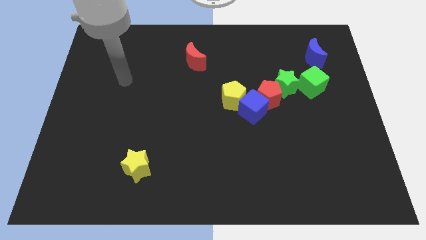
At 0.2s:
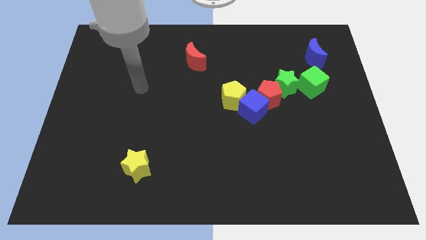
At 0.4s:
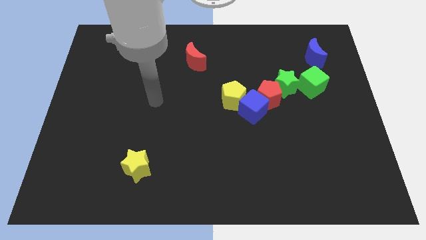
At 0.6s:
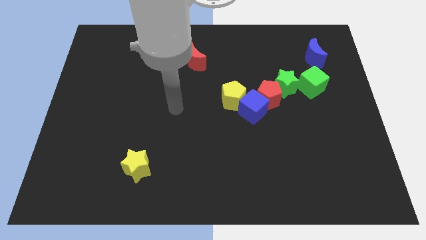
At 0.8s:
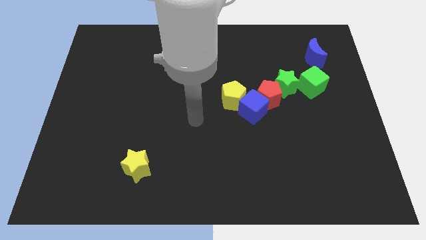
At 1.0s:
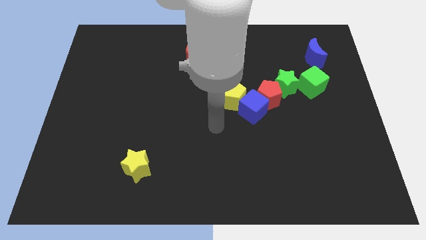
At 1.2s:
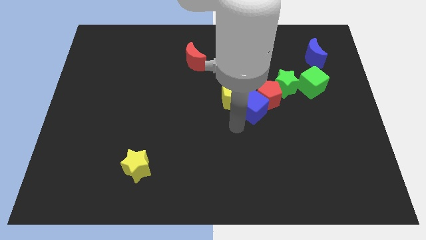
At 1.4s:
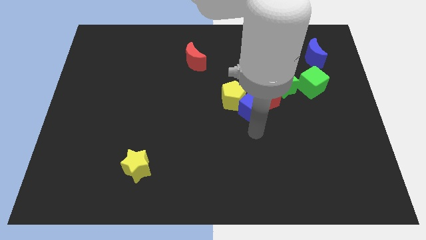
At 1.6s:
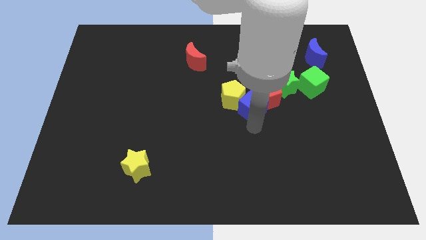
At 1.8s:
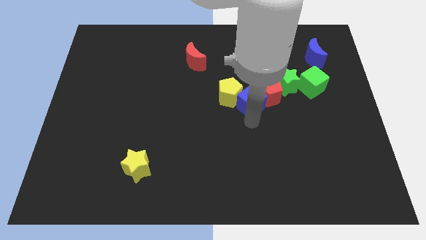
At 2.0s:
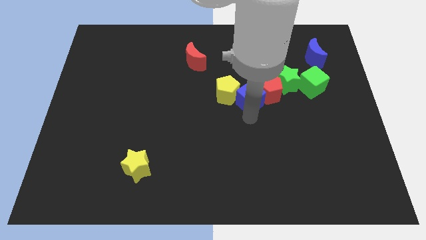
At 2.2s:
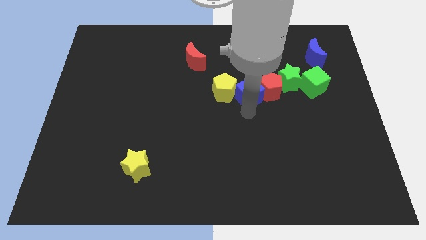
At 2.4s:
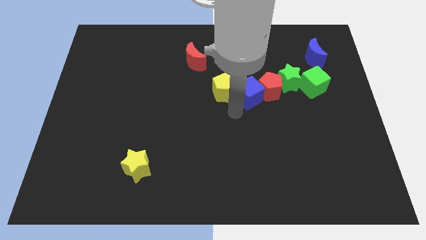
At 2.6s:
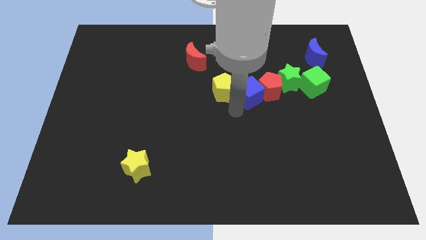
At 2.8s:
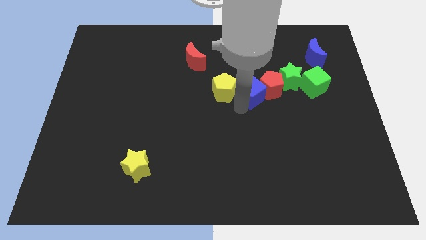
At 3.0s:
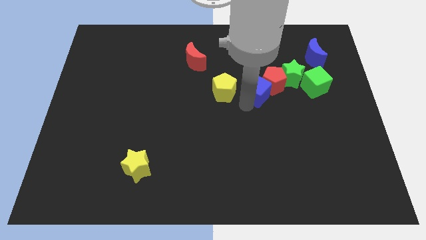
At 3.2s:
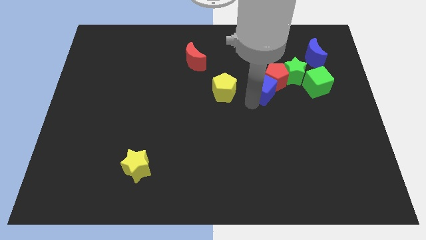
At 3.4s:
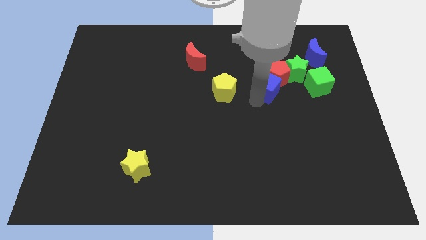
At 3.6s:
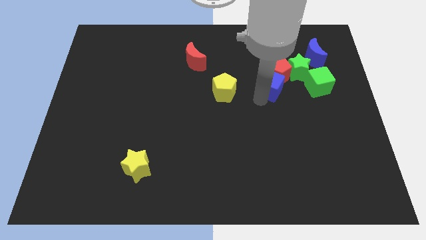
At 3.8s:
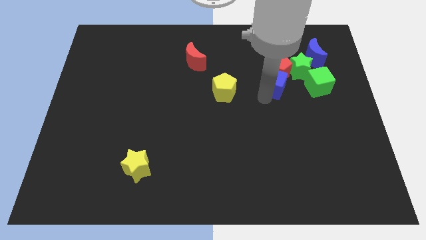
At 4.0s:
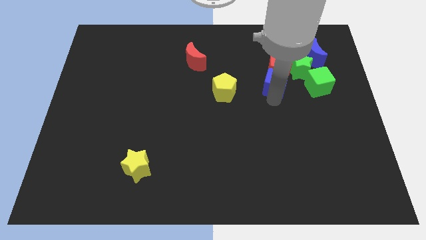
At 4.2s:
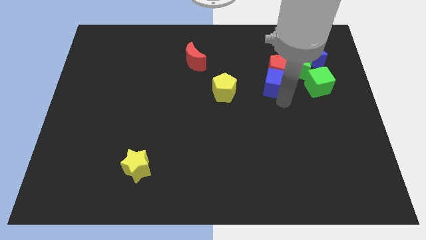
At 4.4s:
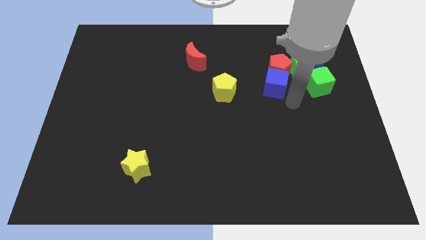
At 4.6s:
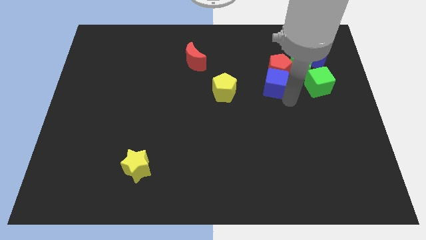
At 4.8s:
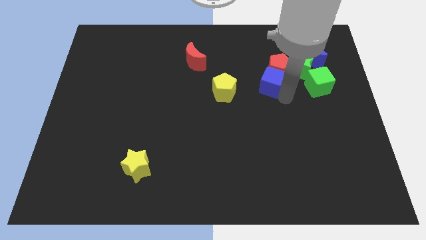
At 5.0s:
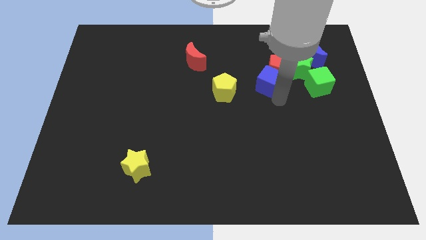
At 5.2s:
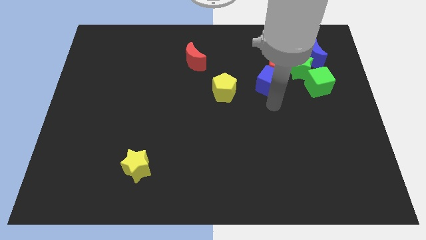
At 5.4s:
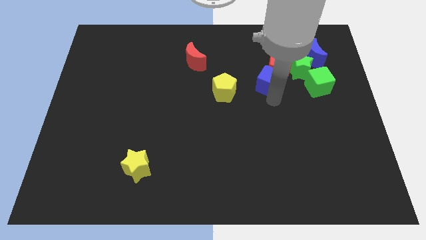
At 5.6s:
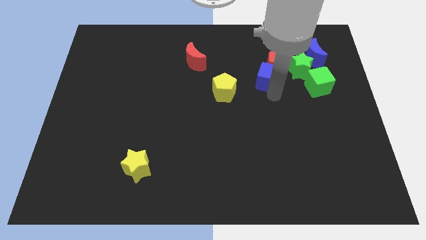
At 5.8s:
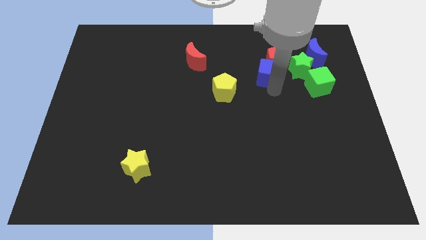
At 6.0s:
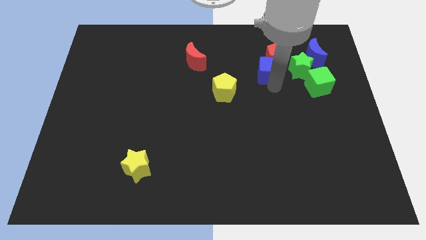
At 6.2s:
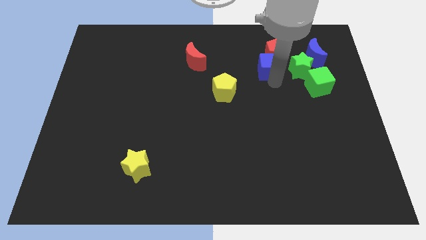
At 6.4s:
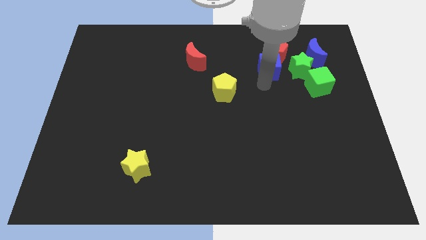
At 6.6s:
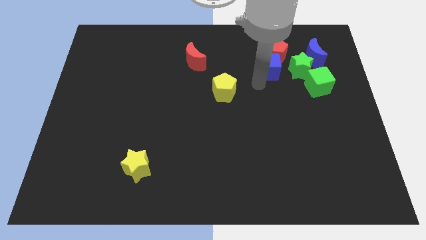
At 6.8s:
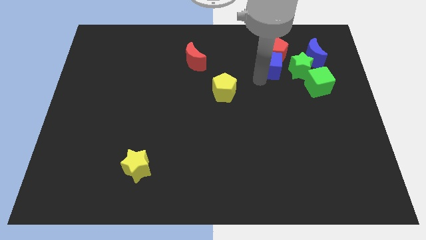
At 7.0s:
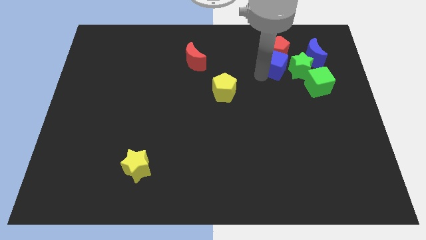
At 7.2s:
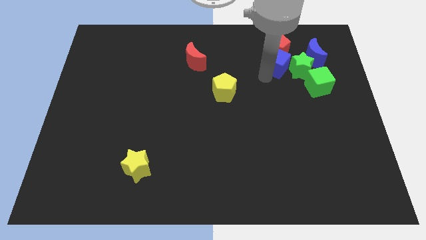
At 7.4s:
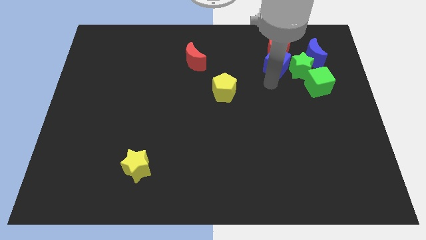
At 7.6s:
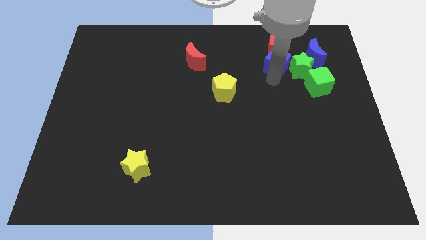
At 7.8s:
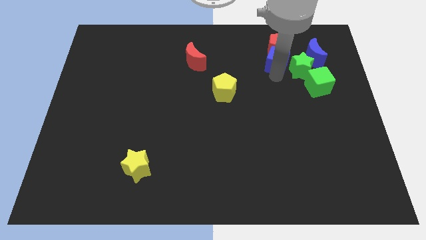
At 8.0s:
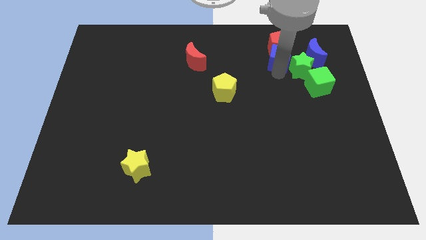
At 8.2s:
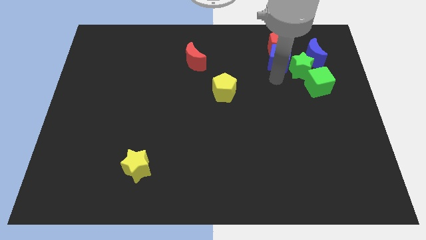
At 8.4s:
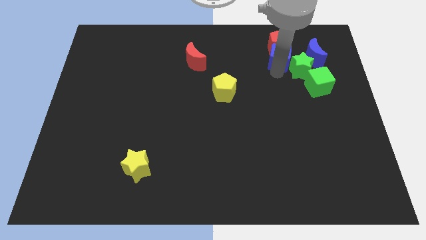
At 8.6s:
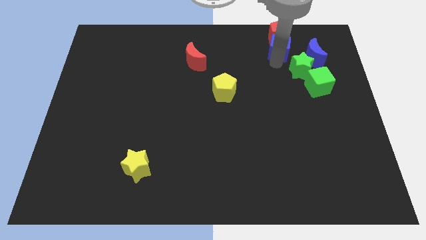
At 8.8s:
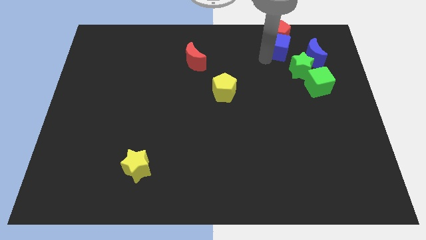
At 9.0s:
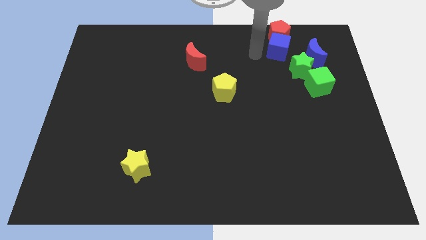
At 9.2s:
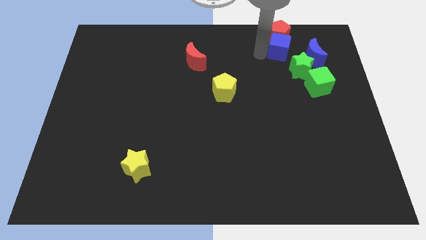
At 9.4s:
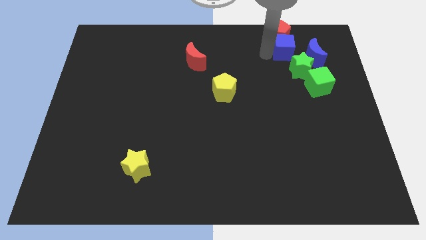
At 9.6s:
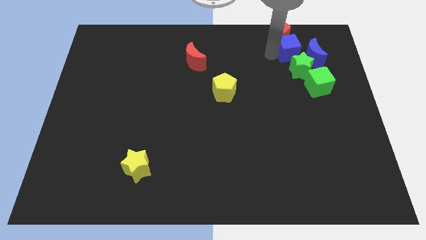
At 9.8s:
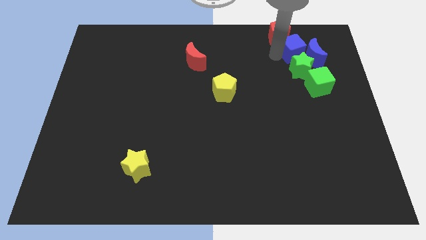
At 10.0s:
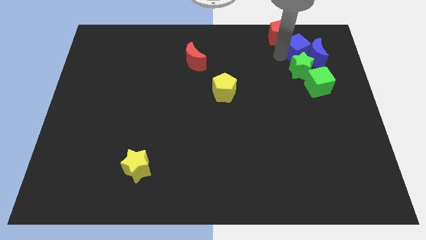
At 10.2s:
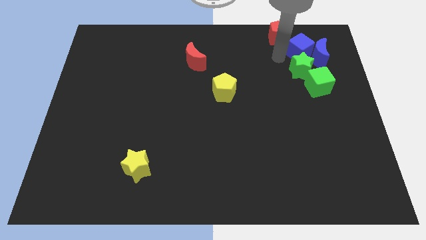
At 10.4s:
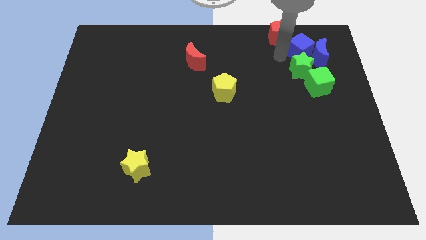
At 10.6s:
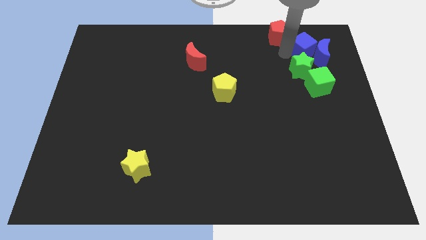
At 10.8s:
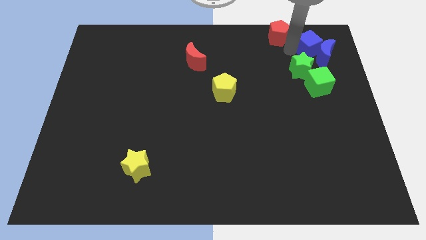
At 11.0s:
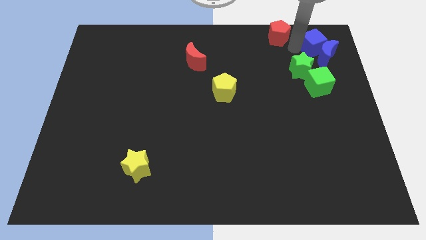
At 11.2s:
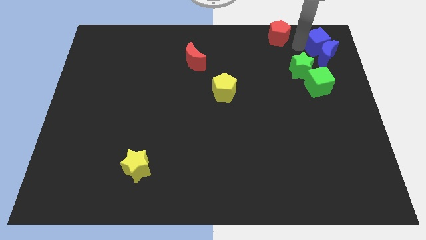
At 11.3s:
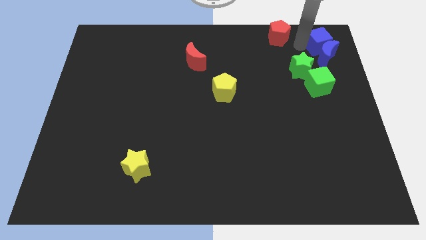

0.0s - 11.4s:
move the blue cube to the top right corner
